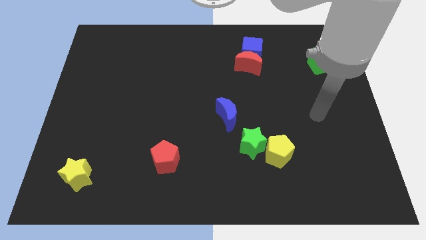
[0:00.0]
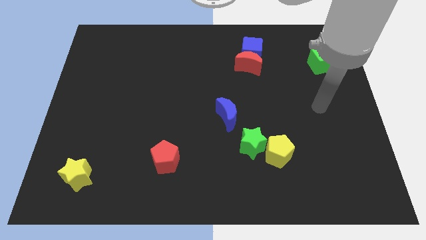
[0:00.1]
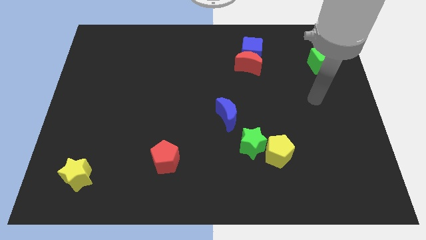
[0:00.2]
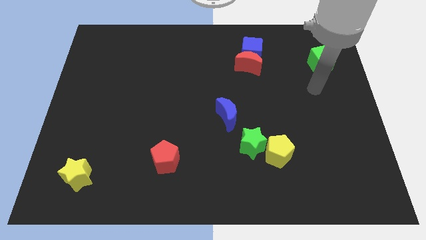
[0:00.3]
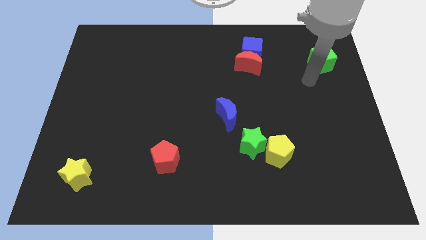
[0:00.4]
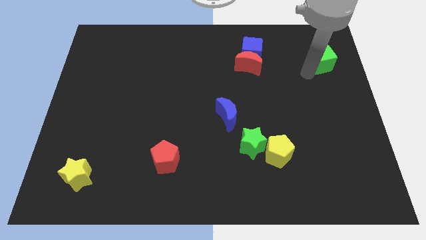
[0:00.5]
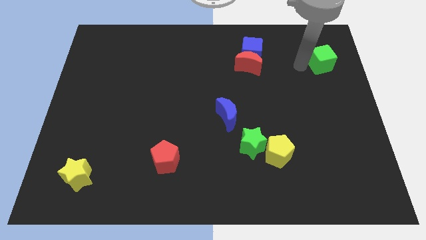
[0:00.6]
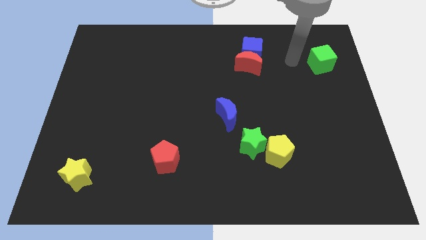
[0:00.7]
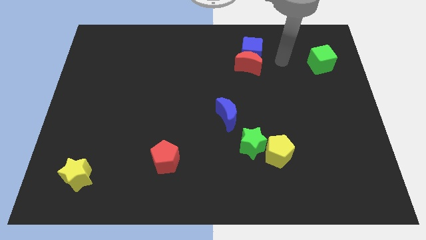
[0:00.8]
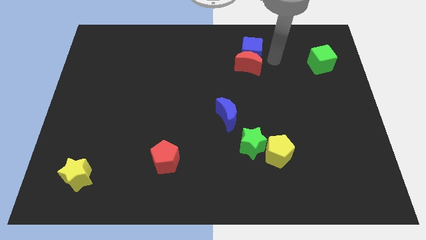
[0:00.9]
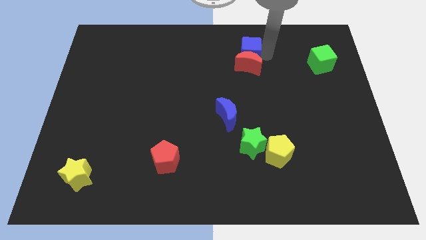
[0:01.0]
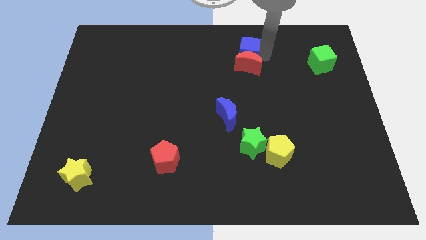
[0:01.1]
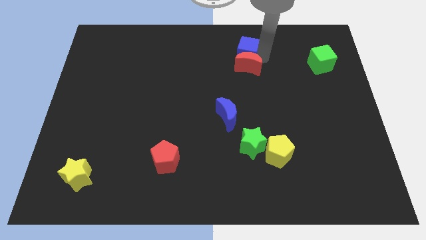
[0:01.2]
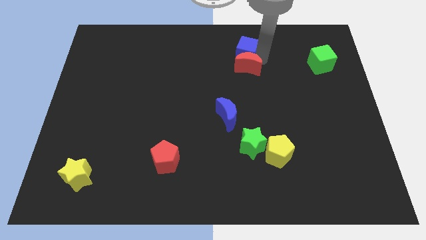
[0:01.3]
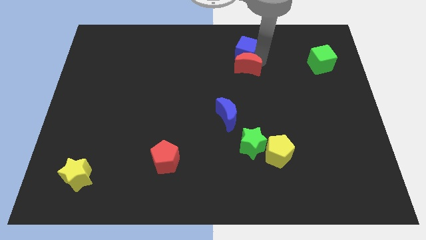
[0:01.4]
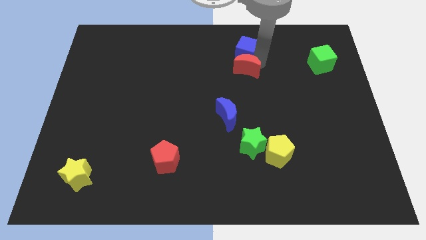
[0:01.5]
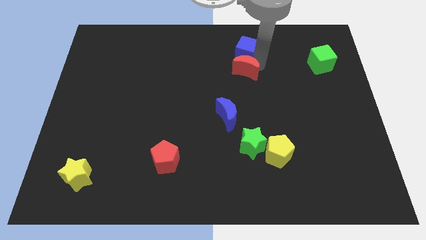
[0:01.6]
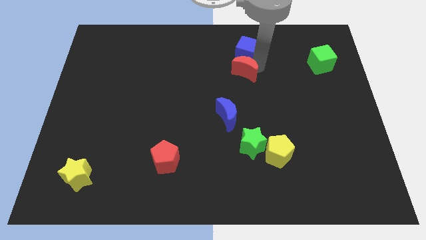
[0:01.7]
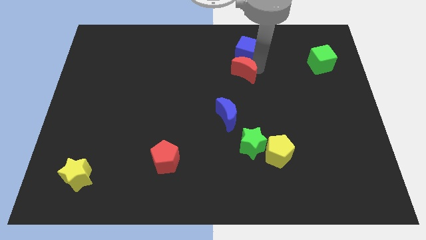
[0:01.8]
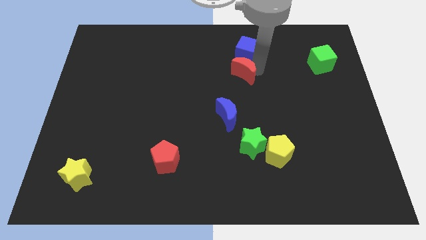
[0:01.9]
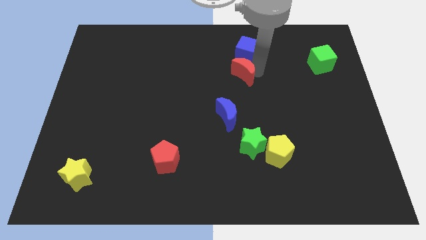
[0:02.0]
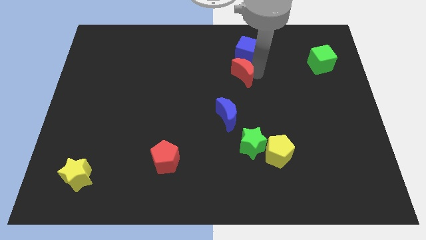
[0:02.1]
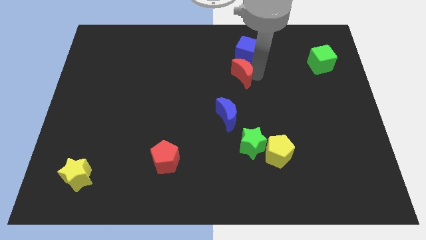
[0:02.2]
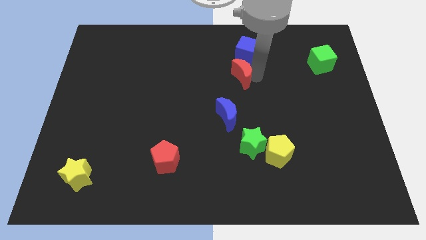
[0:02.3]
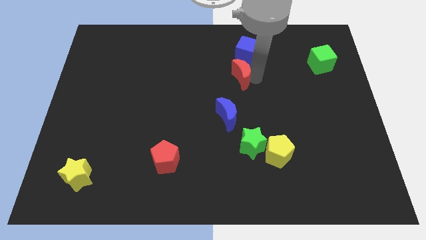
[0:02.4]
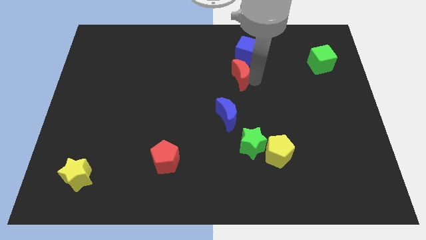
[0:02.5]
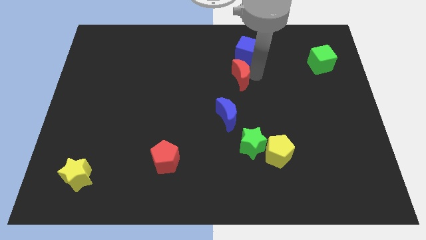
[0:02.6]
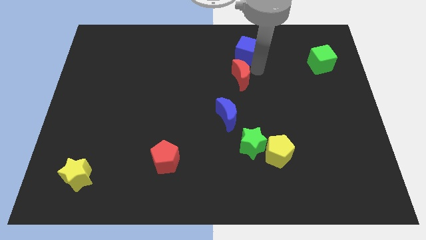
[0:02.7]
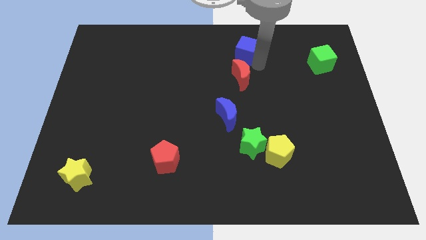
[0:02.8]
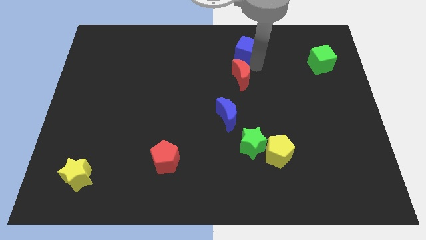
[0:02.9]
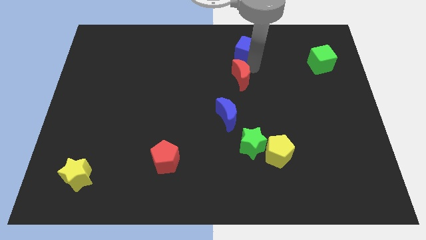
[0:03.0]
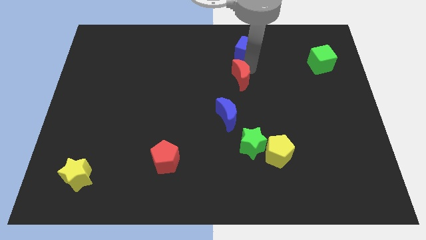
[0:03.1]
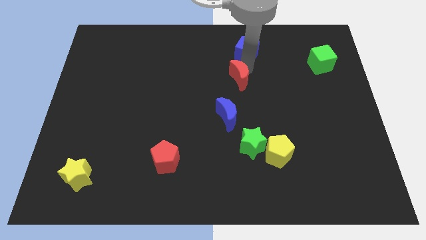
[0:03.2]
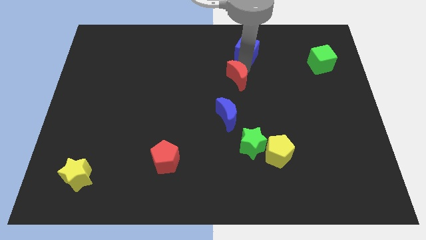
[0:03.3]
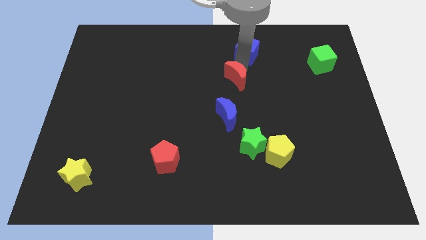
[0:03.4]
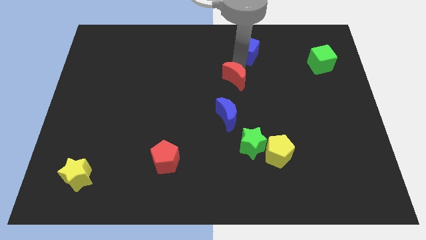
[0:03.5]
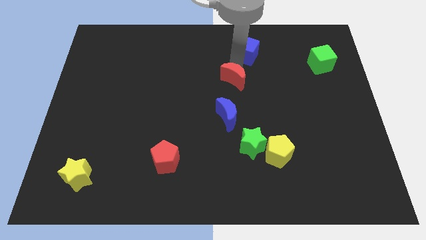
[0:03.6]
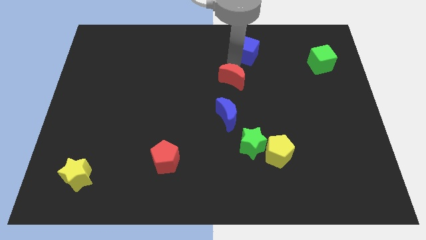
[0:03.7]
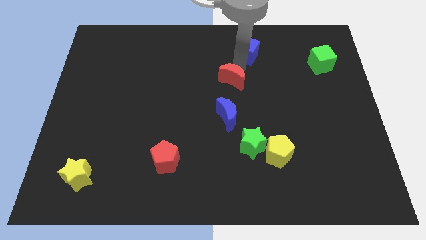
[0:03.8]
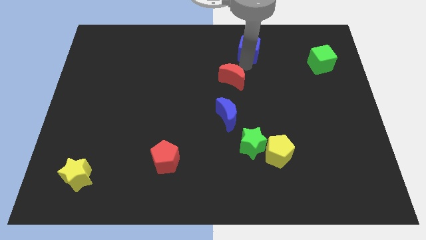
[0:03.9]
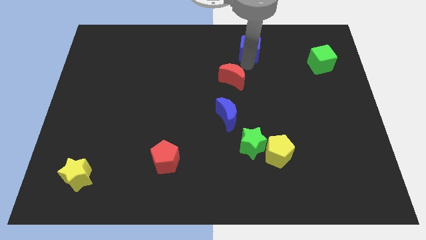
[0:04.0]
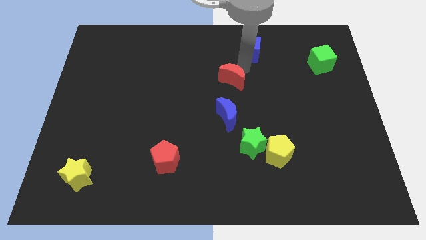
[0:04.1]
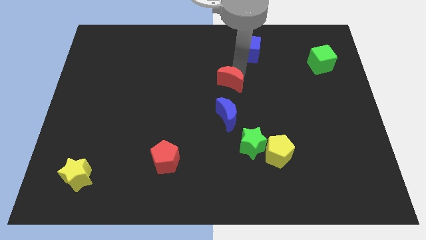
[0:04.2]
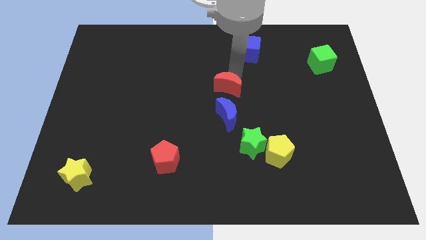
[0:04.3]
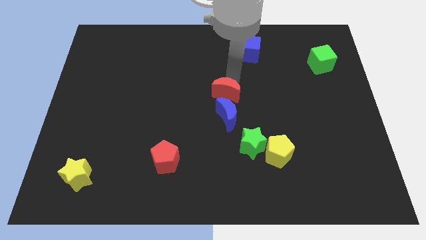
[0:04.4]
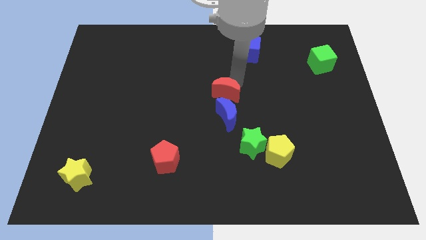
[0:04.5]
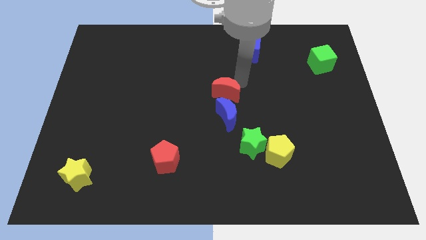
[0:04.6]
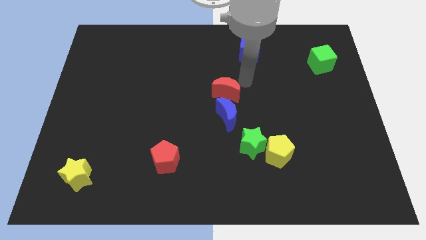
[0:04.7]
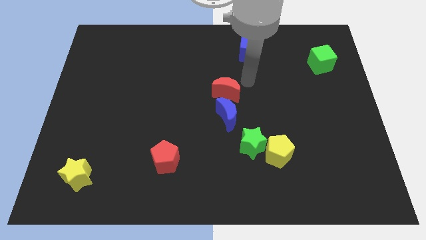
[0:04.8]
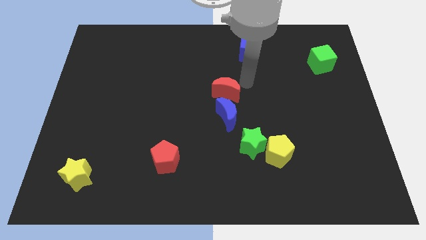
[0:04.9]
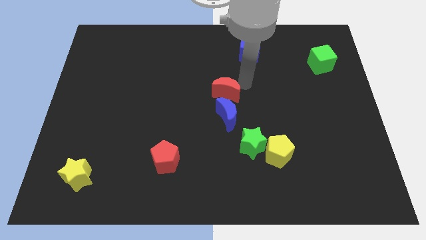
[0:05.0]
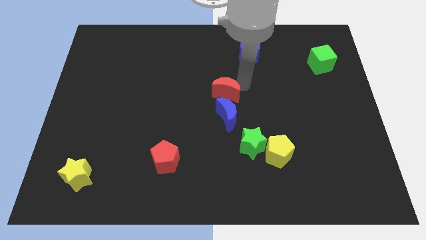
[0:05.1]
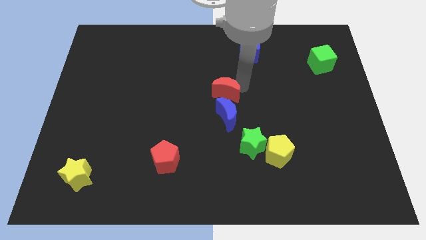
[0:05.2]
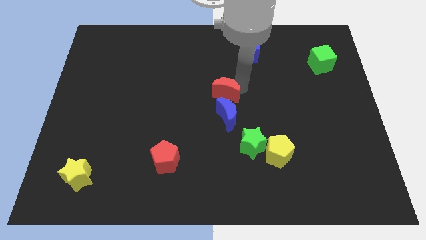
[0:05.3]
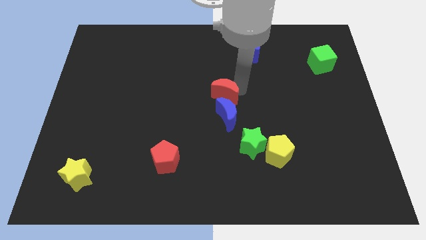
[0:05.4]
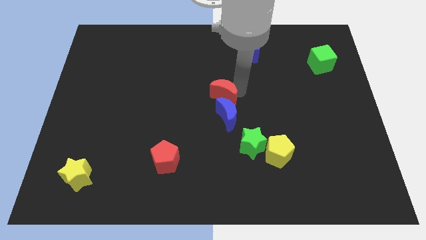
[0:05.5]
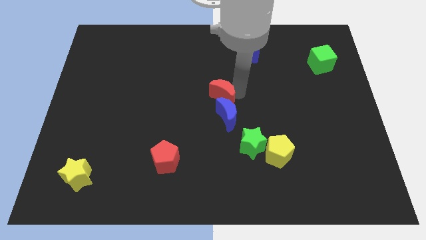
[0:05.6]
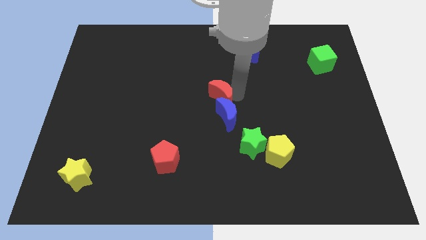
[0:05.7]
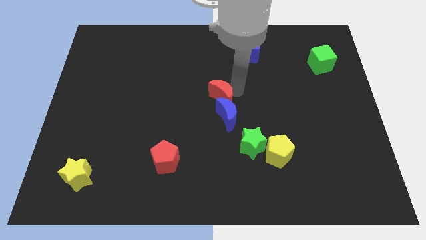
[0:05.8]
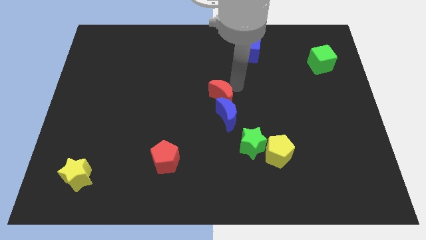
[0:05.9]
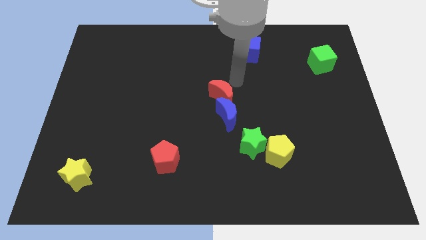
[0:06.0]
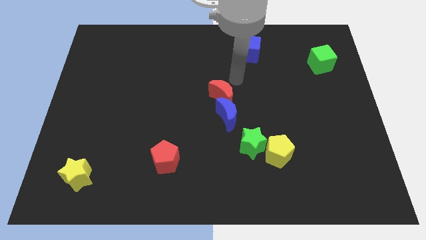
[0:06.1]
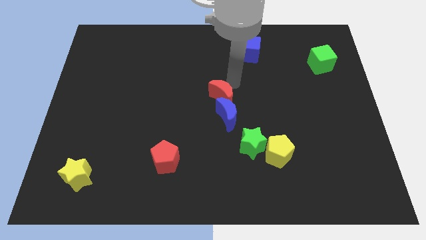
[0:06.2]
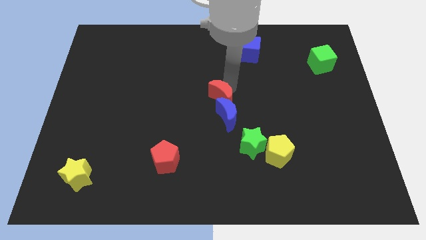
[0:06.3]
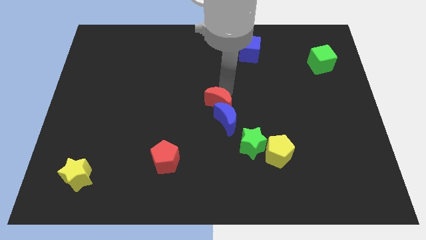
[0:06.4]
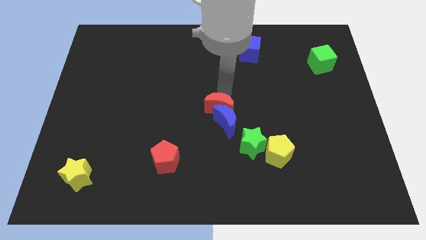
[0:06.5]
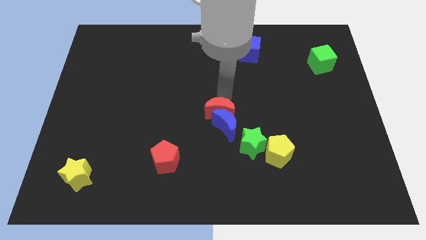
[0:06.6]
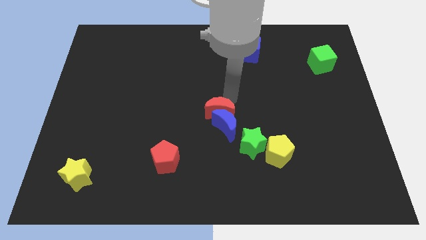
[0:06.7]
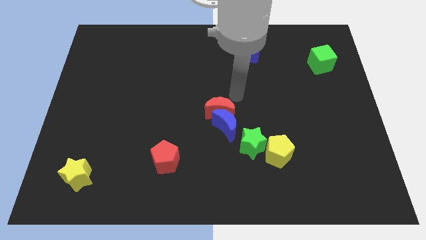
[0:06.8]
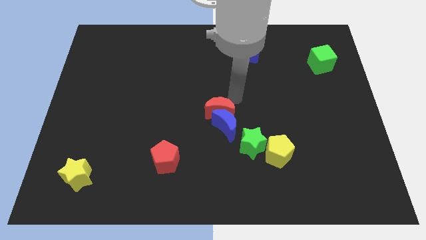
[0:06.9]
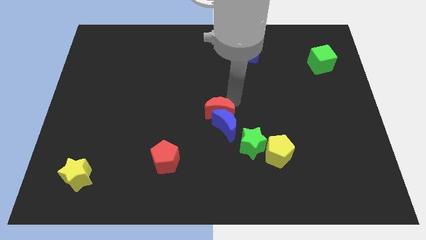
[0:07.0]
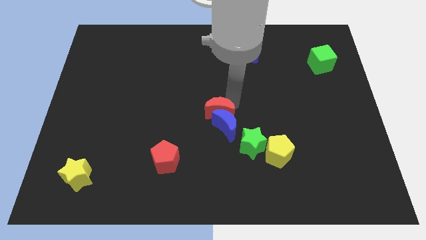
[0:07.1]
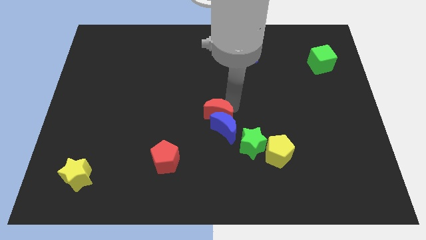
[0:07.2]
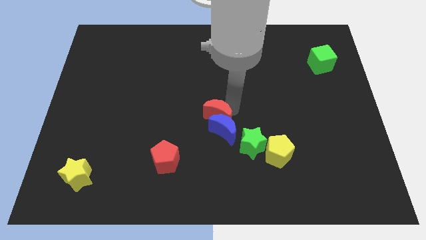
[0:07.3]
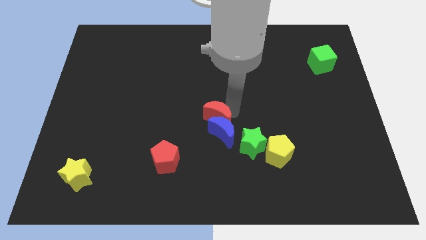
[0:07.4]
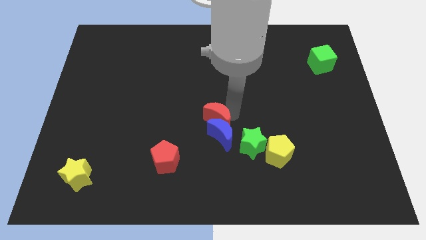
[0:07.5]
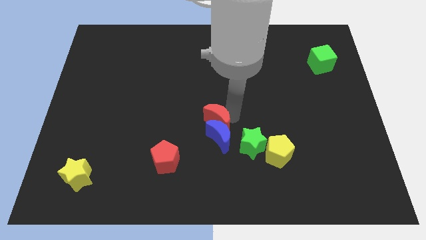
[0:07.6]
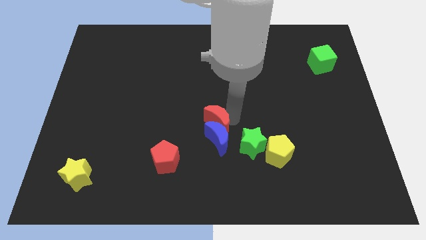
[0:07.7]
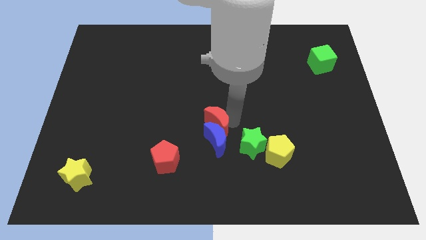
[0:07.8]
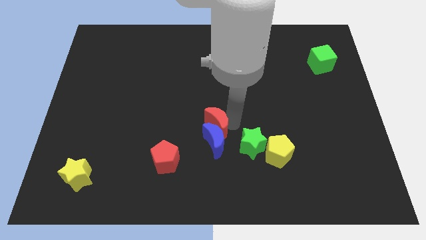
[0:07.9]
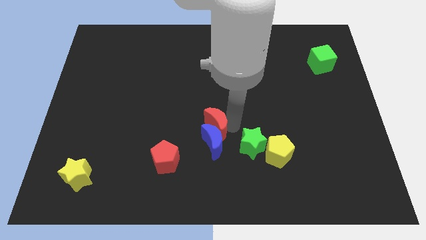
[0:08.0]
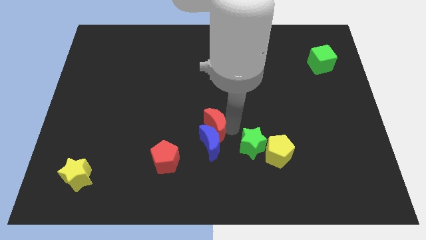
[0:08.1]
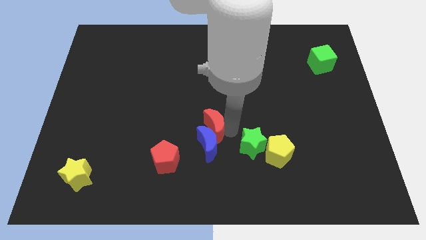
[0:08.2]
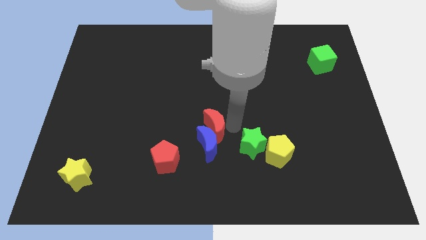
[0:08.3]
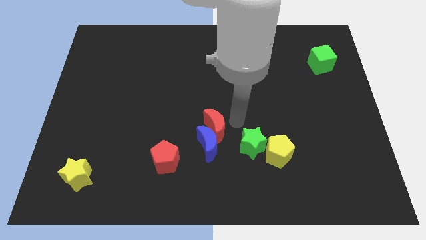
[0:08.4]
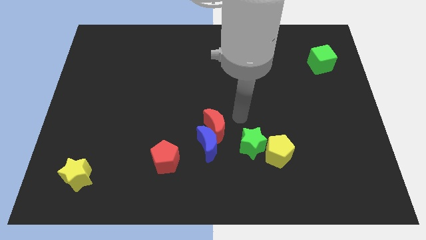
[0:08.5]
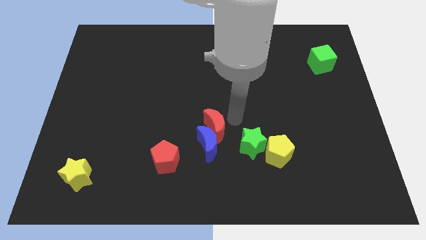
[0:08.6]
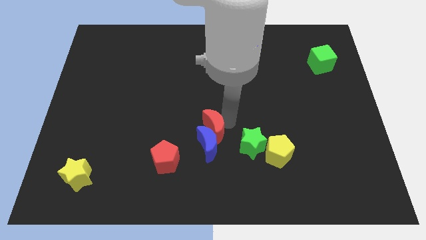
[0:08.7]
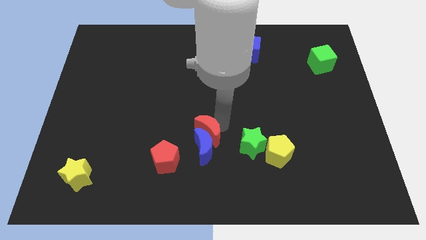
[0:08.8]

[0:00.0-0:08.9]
slide the red moon to the top right of the red pentagon
